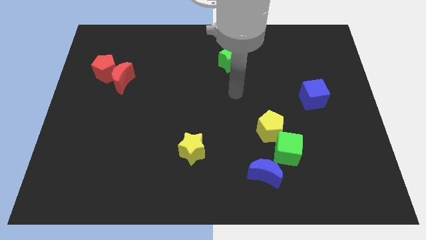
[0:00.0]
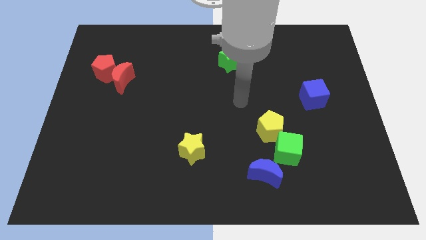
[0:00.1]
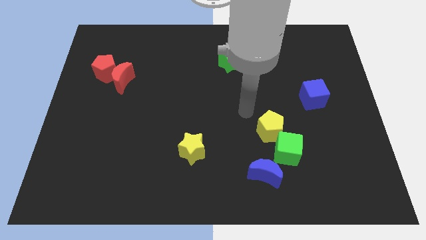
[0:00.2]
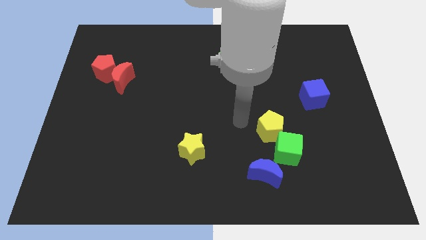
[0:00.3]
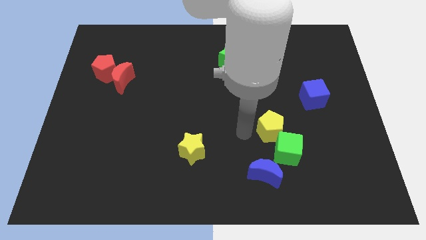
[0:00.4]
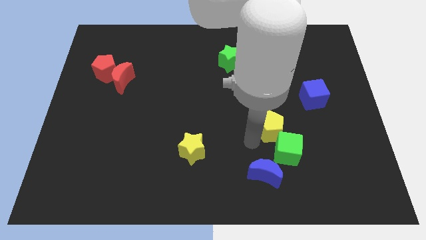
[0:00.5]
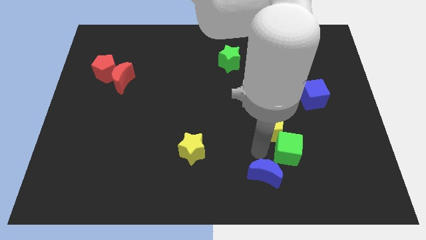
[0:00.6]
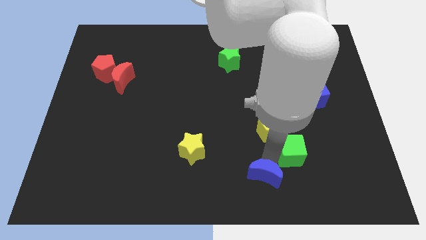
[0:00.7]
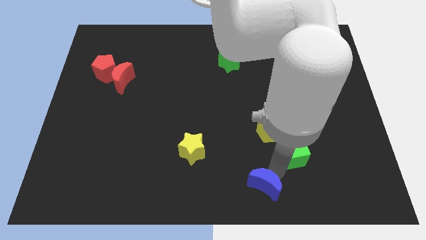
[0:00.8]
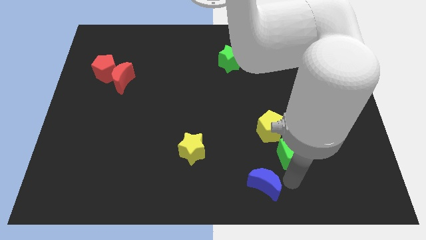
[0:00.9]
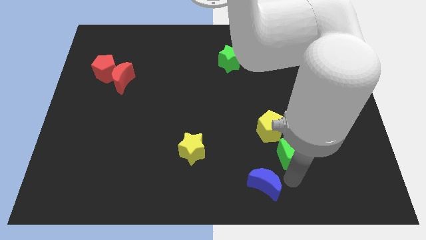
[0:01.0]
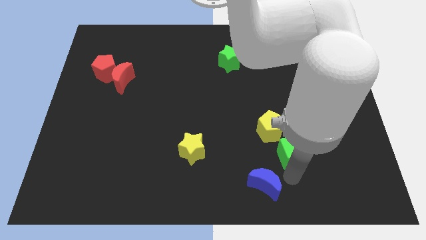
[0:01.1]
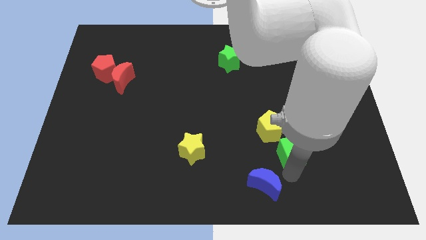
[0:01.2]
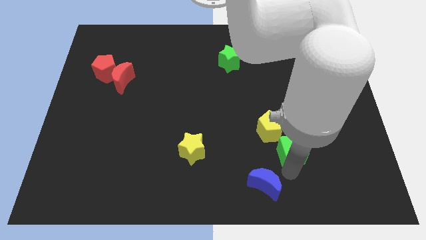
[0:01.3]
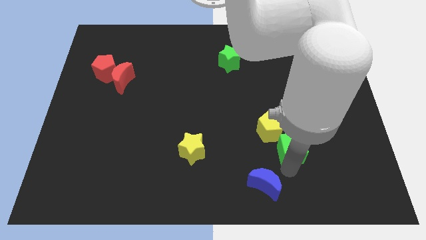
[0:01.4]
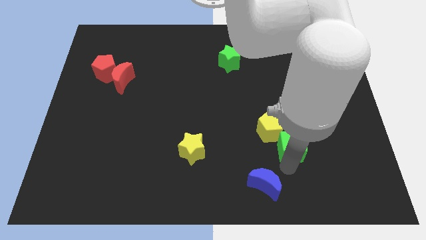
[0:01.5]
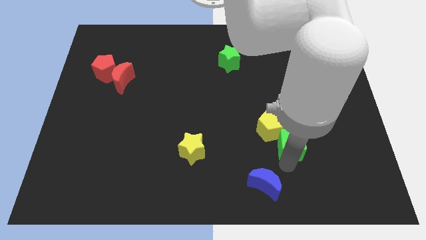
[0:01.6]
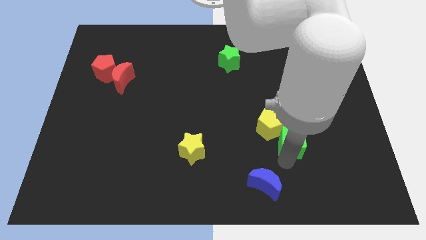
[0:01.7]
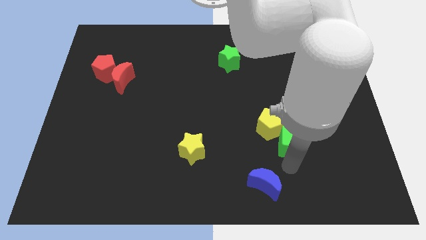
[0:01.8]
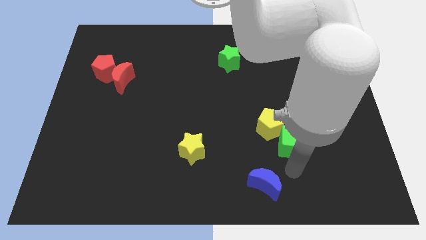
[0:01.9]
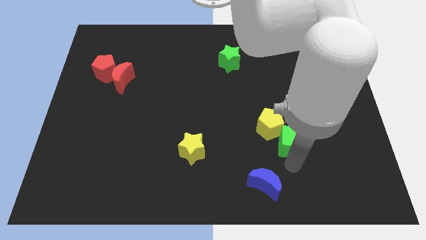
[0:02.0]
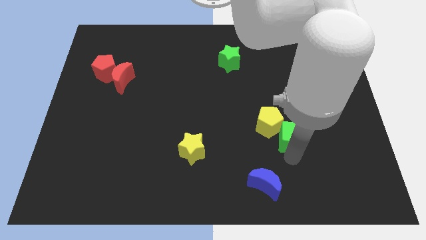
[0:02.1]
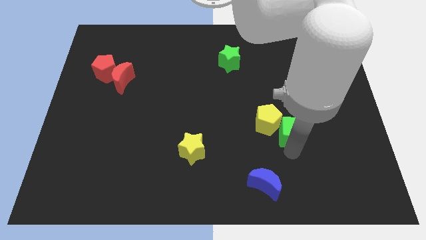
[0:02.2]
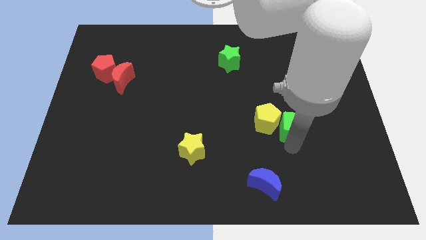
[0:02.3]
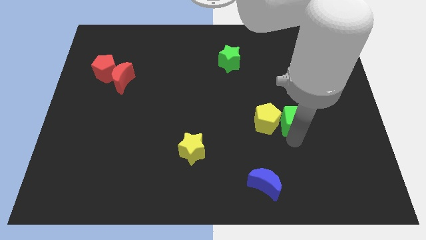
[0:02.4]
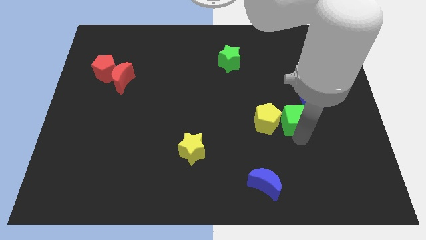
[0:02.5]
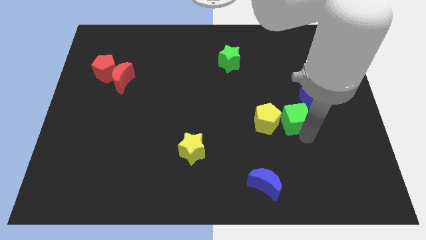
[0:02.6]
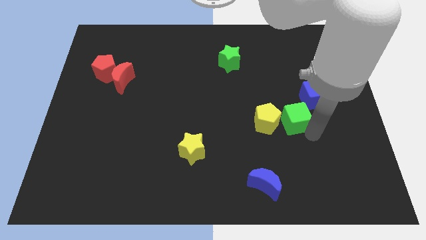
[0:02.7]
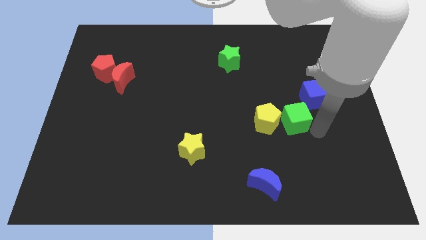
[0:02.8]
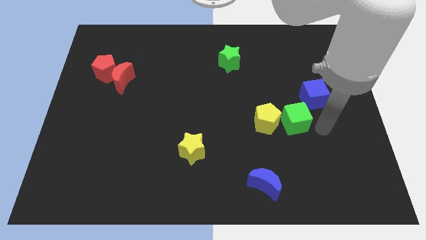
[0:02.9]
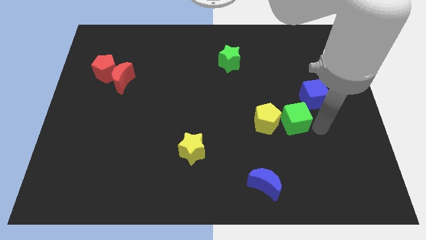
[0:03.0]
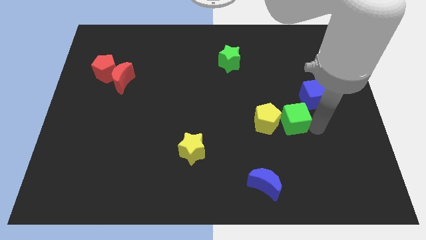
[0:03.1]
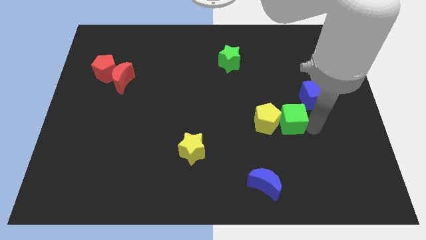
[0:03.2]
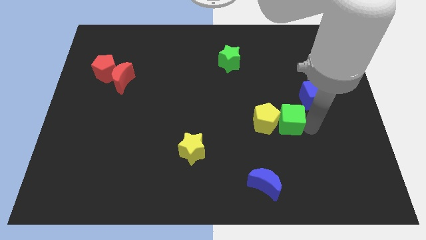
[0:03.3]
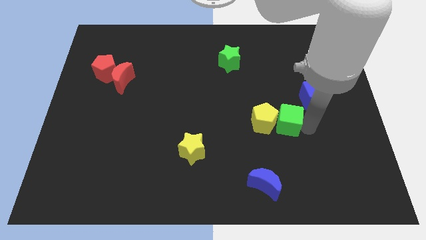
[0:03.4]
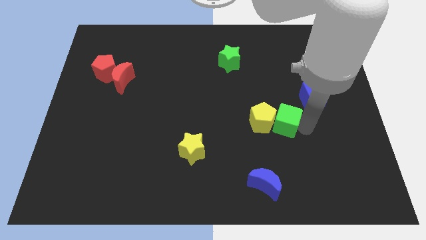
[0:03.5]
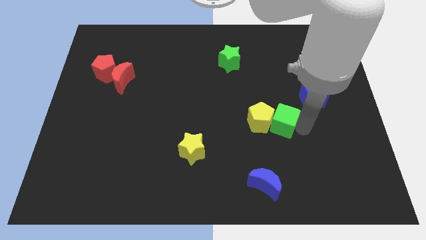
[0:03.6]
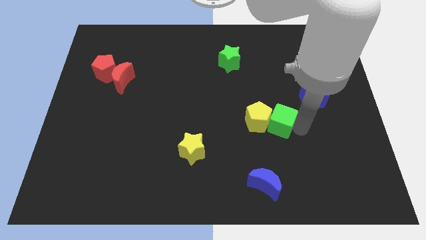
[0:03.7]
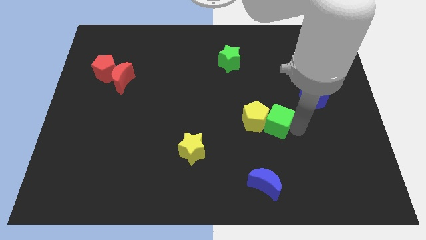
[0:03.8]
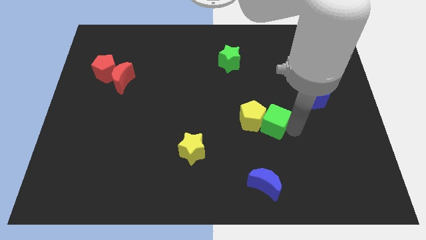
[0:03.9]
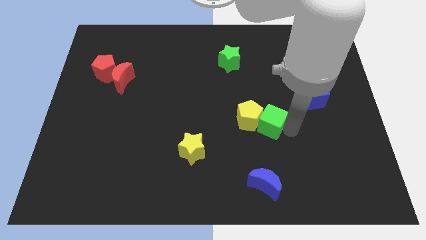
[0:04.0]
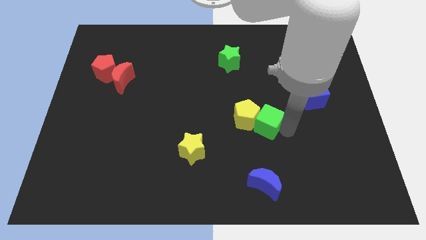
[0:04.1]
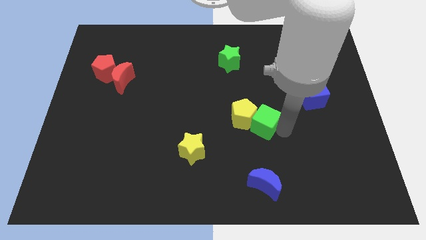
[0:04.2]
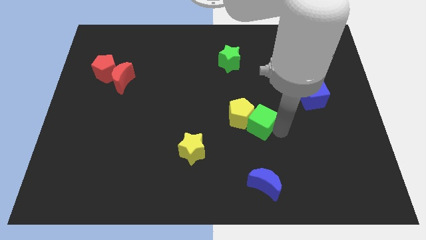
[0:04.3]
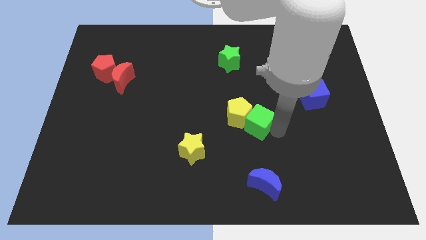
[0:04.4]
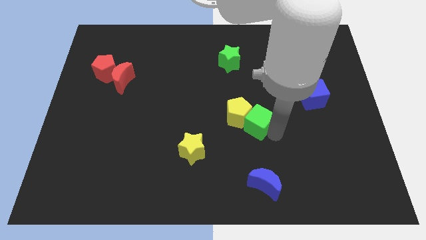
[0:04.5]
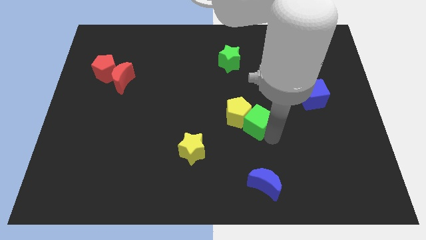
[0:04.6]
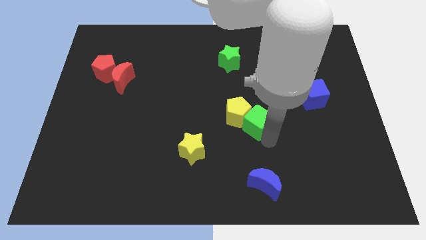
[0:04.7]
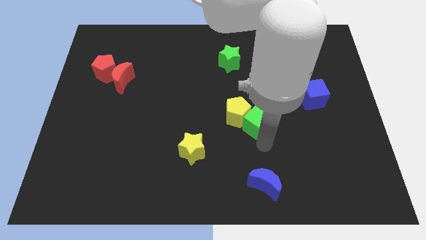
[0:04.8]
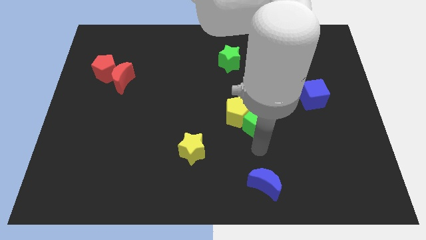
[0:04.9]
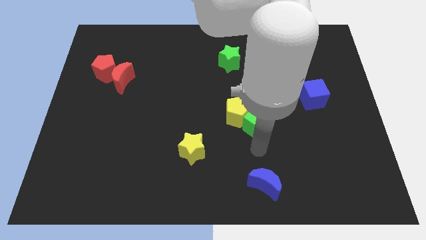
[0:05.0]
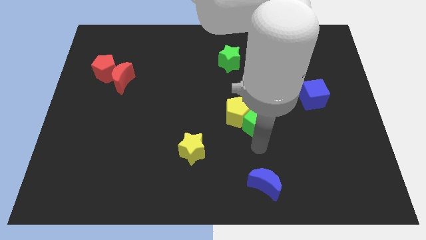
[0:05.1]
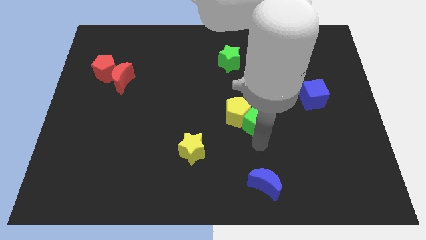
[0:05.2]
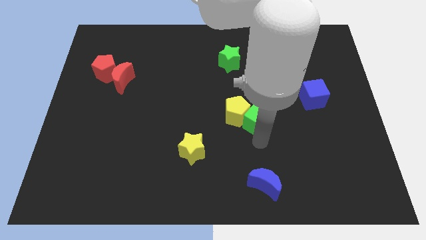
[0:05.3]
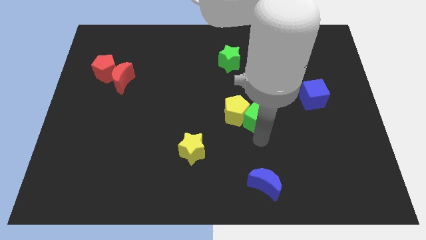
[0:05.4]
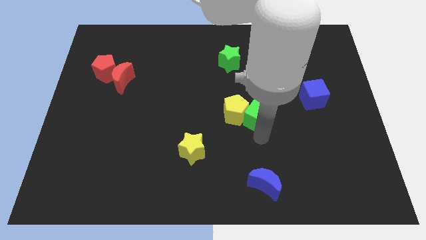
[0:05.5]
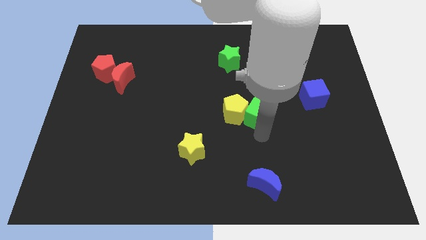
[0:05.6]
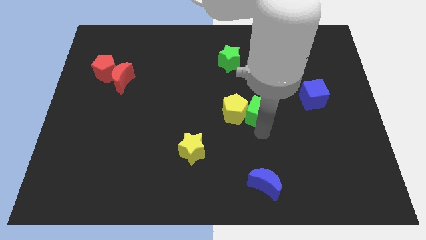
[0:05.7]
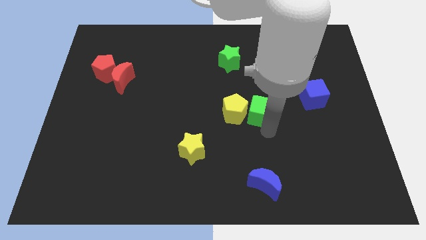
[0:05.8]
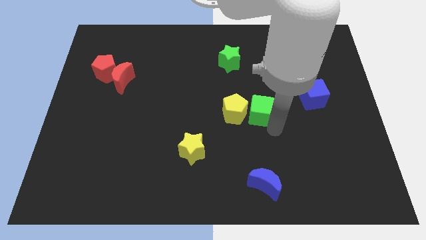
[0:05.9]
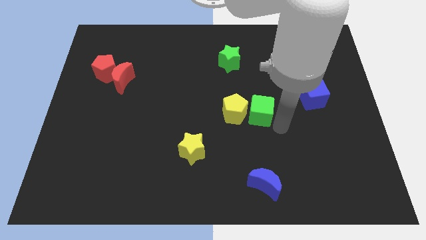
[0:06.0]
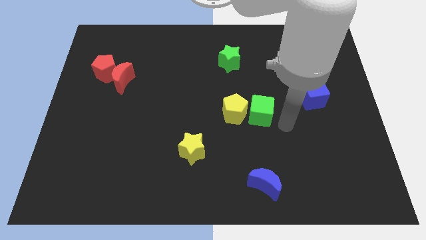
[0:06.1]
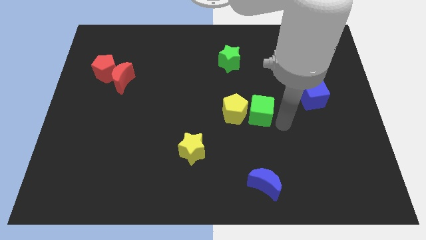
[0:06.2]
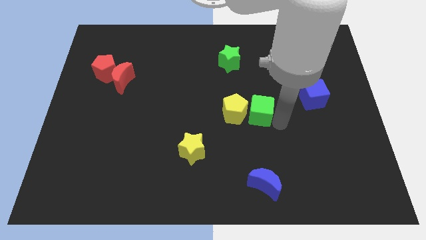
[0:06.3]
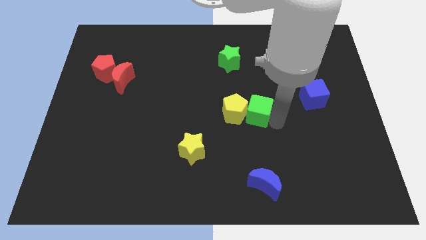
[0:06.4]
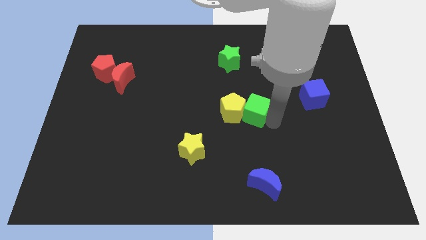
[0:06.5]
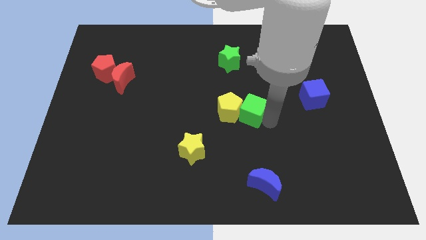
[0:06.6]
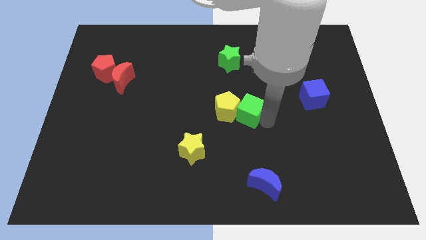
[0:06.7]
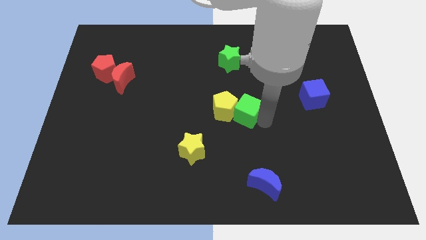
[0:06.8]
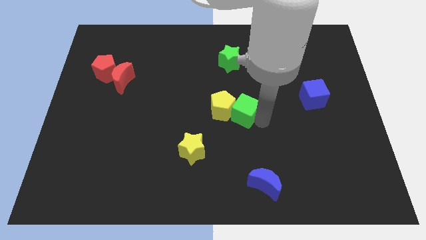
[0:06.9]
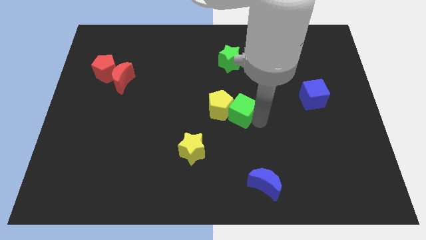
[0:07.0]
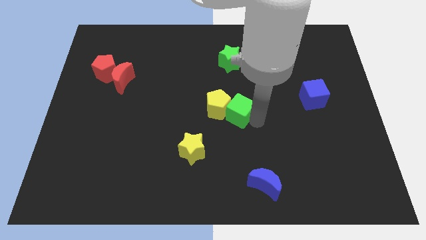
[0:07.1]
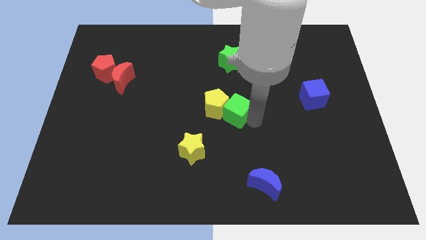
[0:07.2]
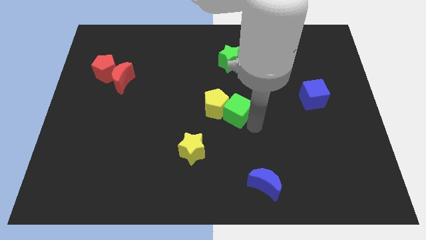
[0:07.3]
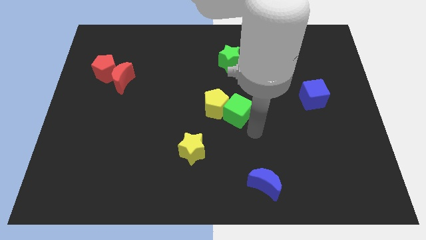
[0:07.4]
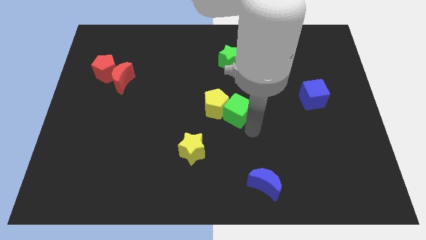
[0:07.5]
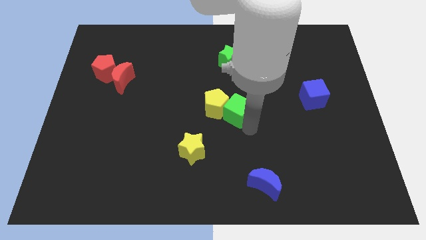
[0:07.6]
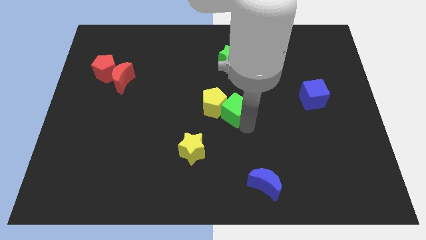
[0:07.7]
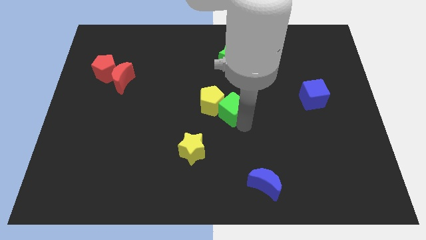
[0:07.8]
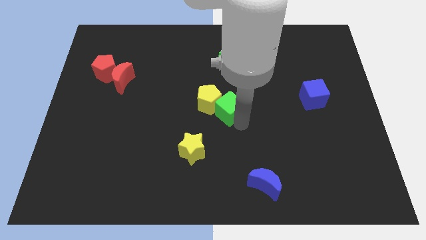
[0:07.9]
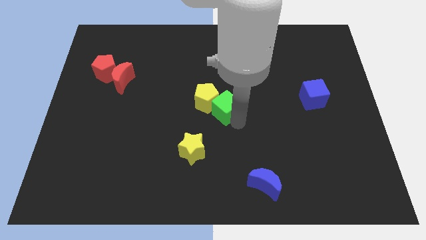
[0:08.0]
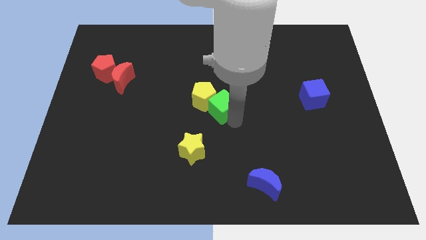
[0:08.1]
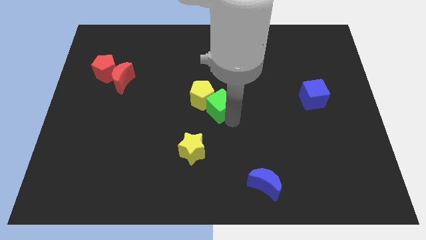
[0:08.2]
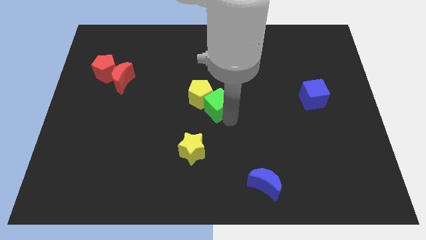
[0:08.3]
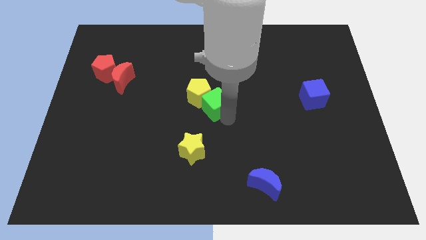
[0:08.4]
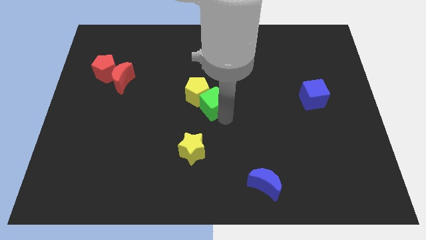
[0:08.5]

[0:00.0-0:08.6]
move the green cube upwards and then left
